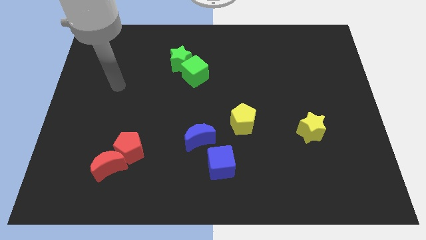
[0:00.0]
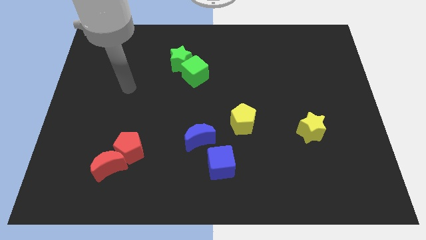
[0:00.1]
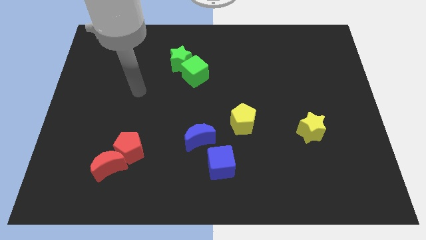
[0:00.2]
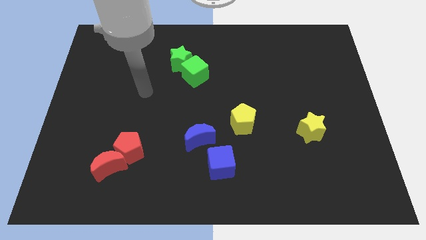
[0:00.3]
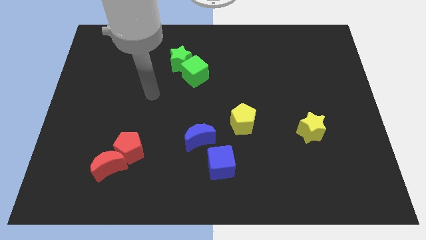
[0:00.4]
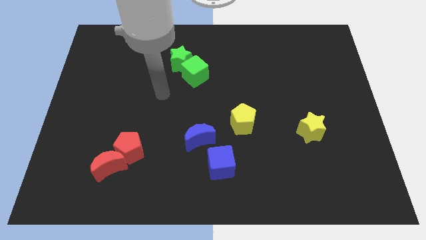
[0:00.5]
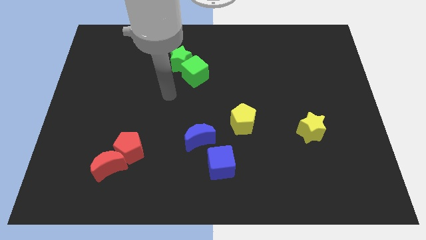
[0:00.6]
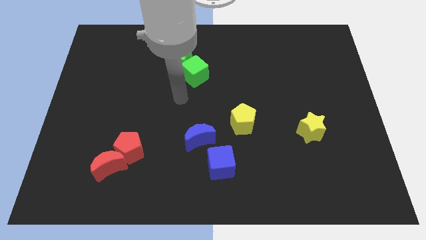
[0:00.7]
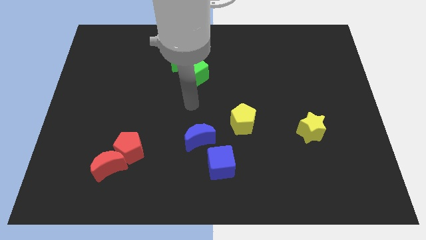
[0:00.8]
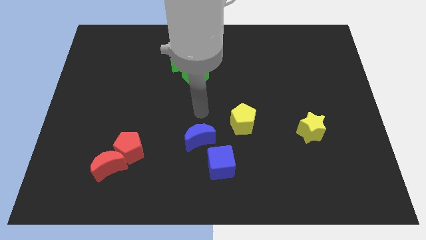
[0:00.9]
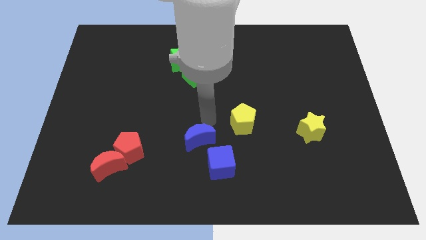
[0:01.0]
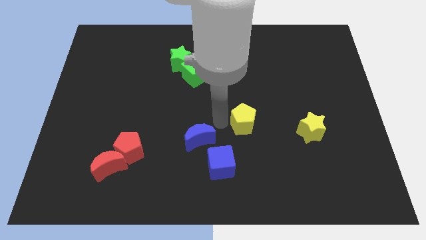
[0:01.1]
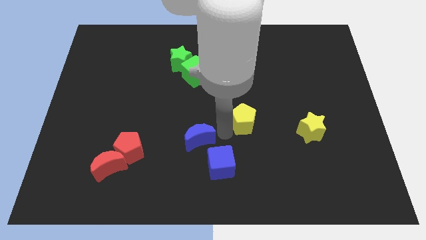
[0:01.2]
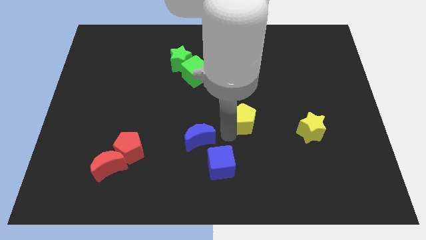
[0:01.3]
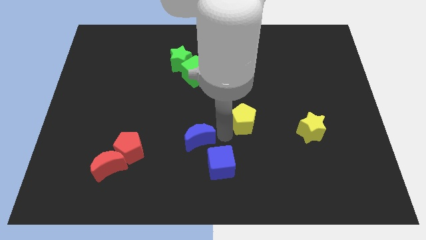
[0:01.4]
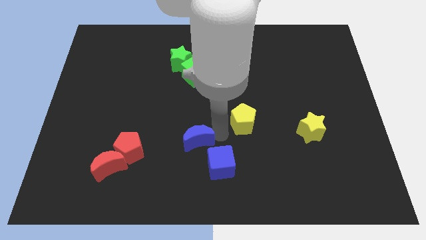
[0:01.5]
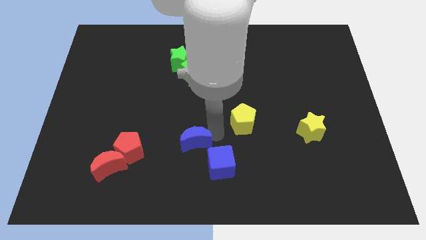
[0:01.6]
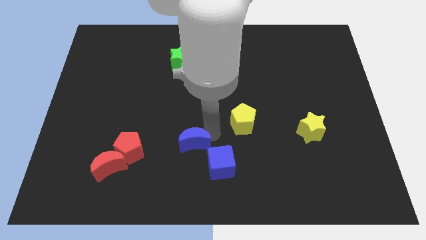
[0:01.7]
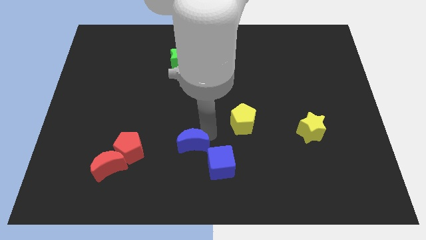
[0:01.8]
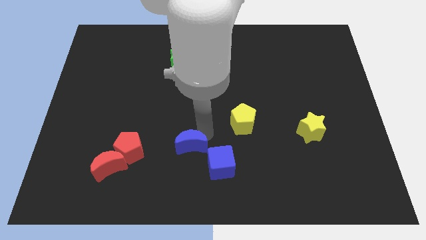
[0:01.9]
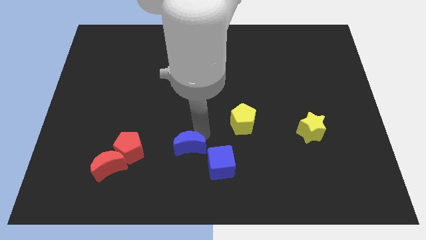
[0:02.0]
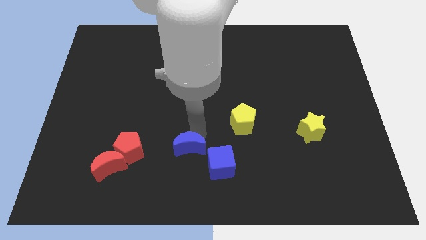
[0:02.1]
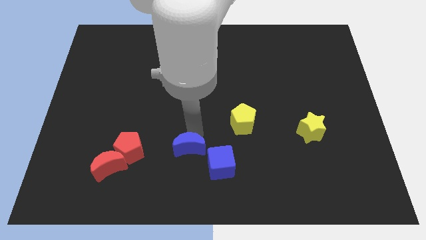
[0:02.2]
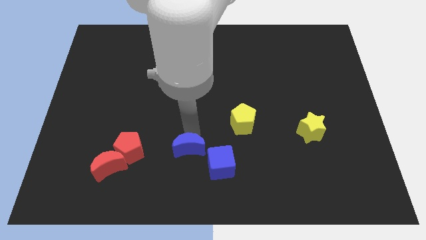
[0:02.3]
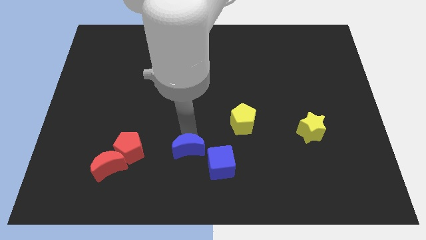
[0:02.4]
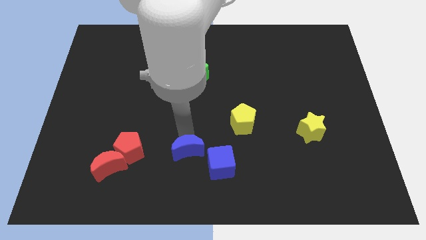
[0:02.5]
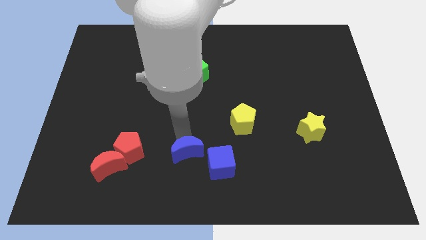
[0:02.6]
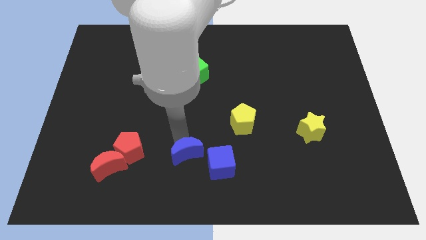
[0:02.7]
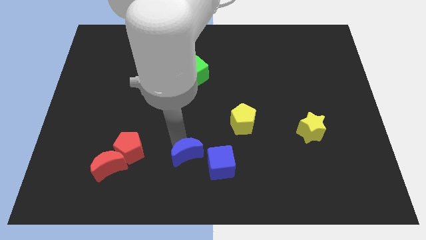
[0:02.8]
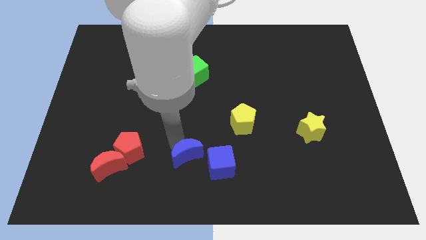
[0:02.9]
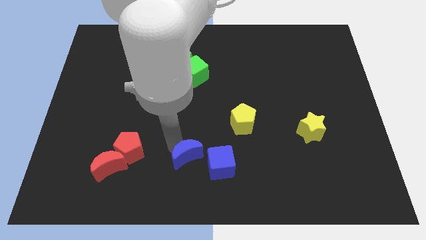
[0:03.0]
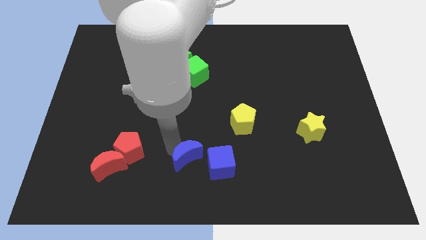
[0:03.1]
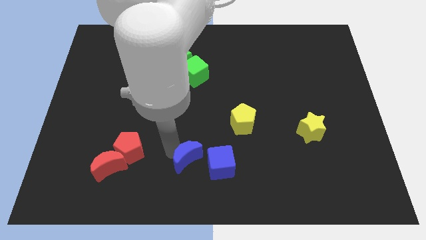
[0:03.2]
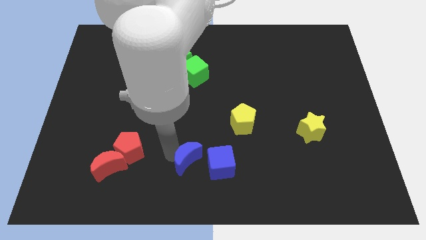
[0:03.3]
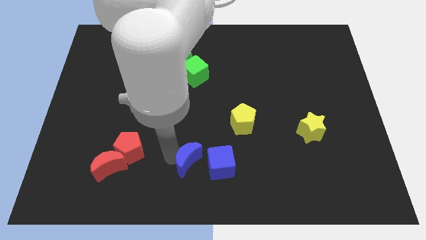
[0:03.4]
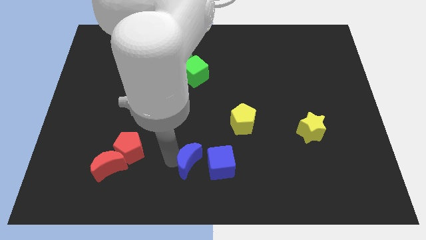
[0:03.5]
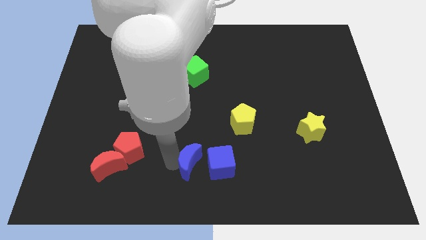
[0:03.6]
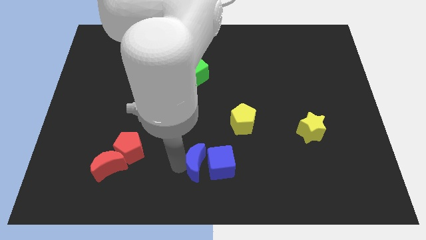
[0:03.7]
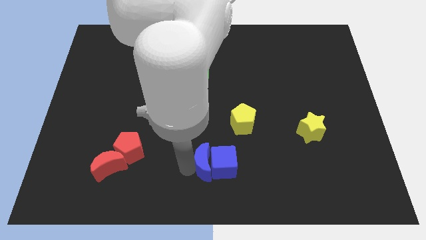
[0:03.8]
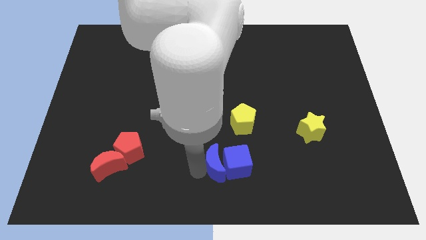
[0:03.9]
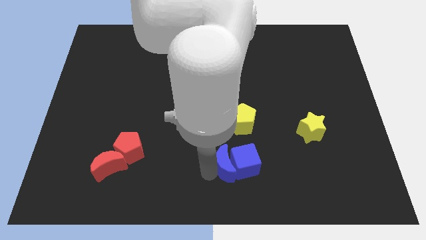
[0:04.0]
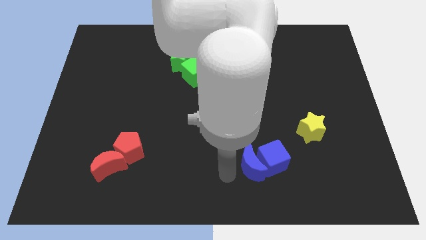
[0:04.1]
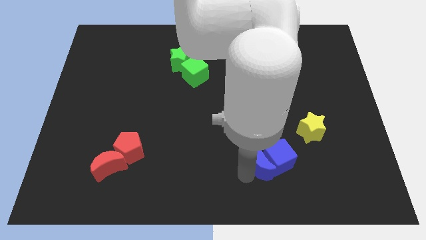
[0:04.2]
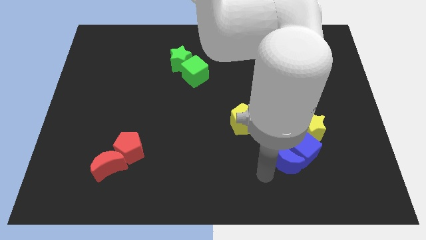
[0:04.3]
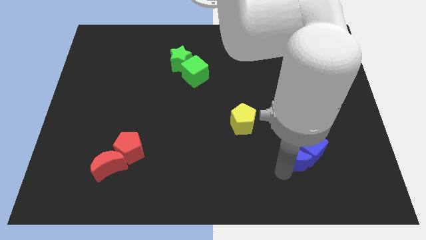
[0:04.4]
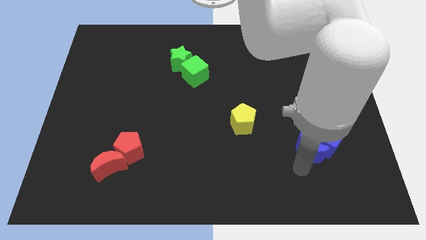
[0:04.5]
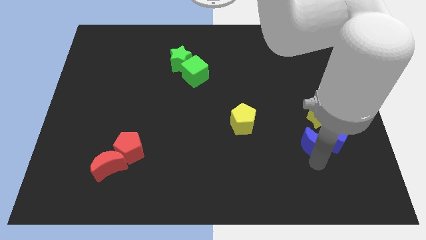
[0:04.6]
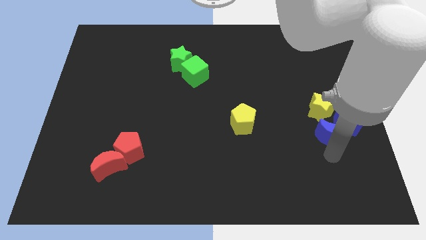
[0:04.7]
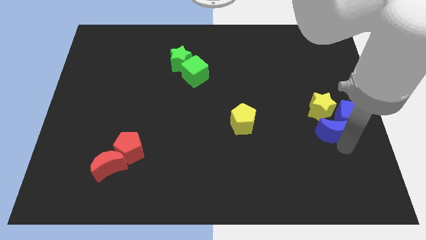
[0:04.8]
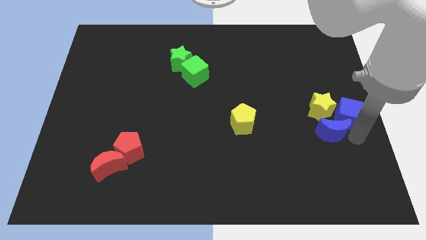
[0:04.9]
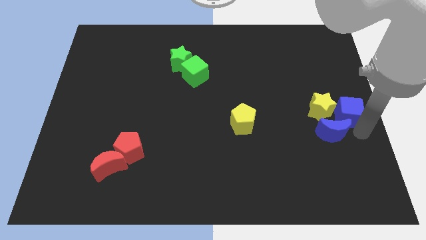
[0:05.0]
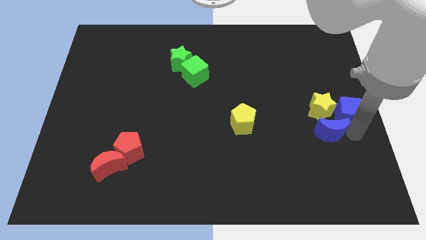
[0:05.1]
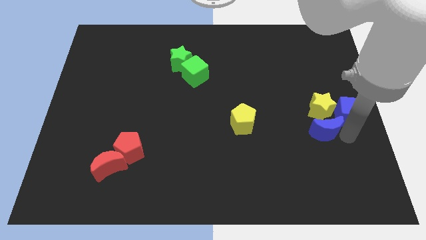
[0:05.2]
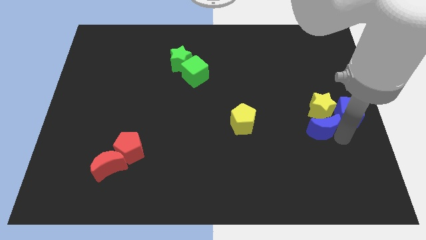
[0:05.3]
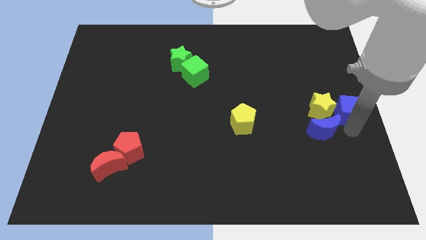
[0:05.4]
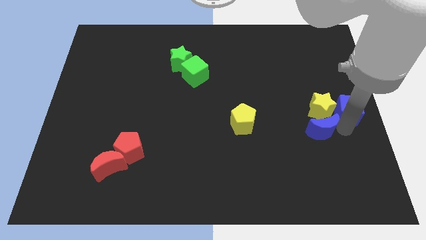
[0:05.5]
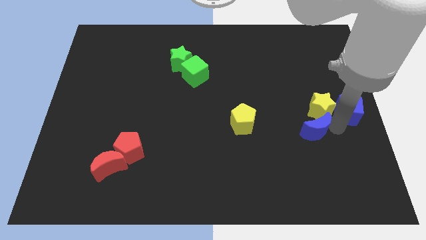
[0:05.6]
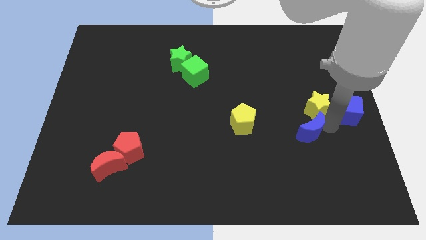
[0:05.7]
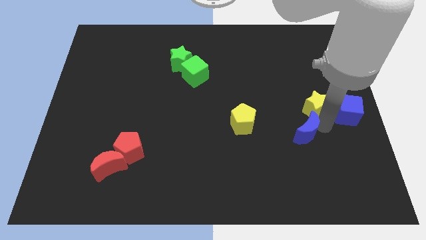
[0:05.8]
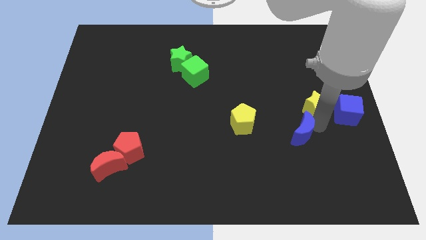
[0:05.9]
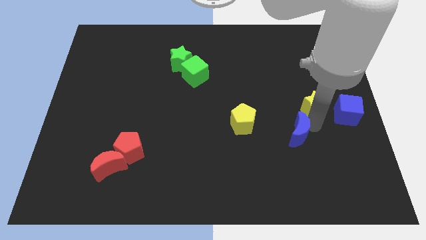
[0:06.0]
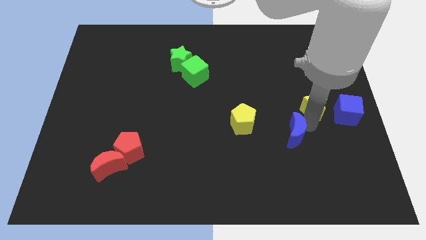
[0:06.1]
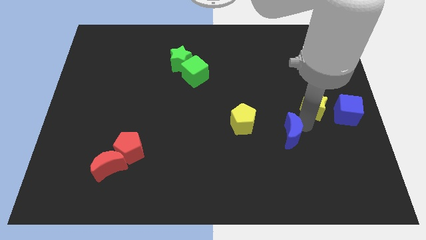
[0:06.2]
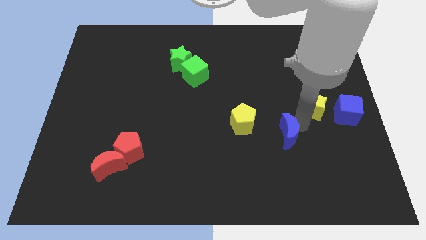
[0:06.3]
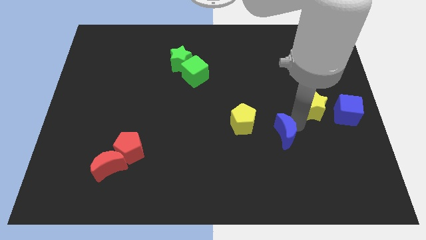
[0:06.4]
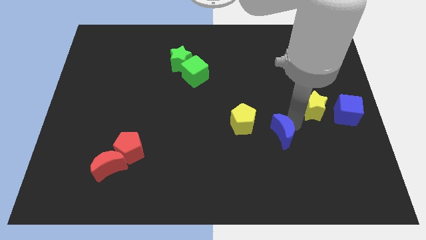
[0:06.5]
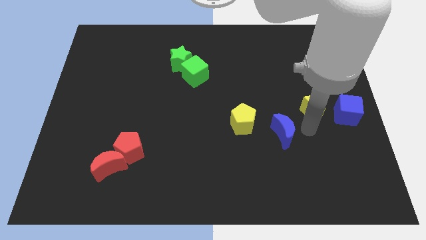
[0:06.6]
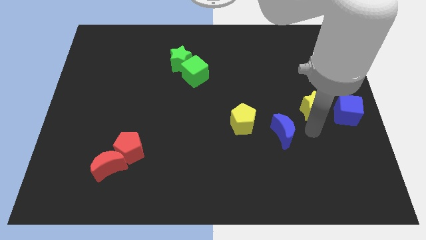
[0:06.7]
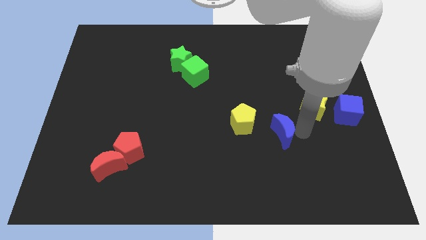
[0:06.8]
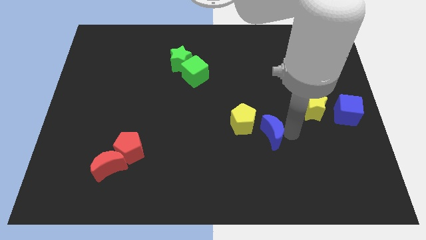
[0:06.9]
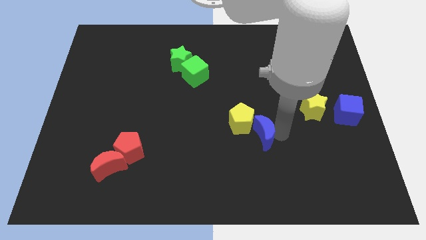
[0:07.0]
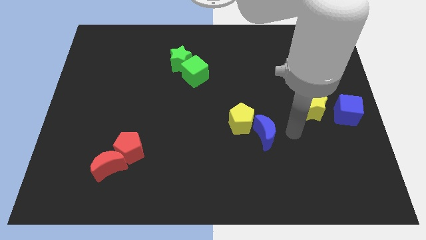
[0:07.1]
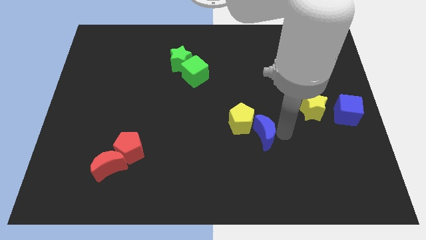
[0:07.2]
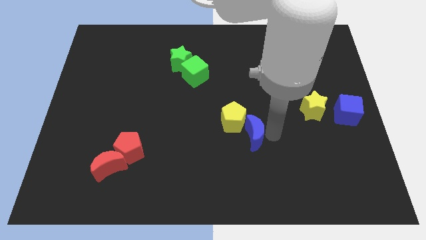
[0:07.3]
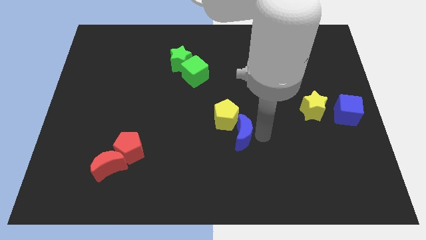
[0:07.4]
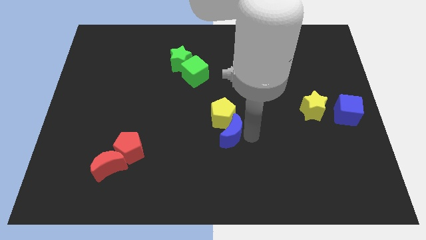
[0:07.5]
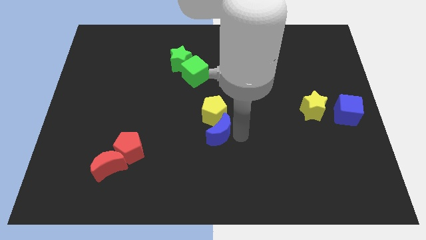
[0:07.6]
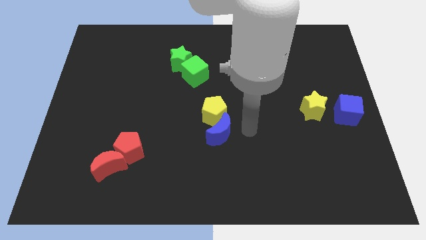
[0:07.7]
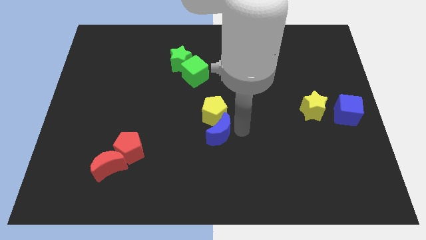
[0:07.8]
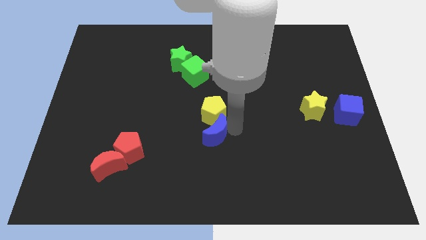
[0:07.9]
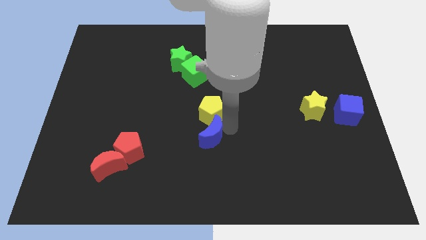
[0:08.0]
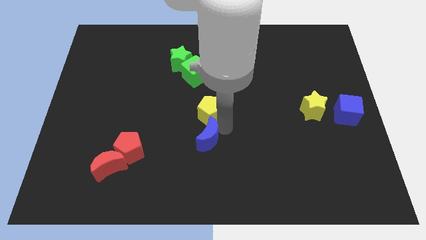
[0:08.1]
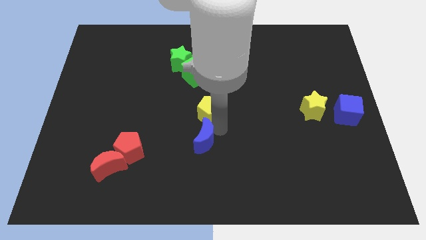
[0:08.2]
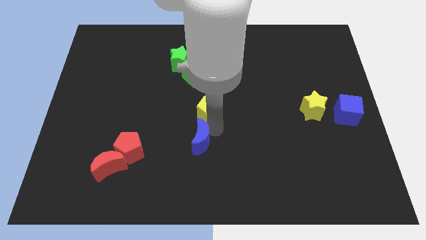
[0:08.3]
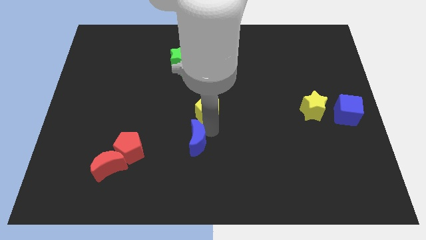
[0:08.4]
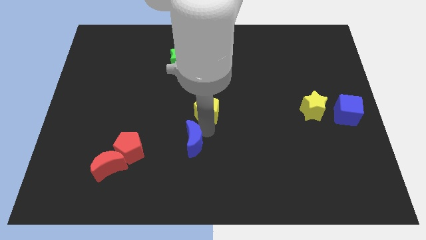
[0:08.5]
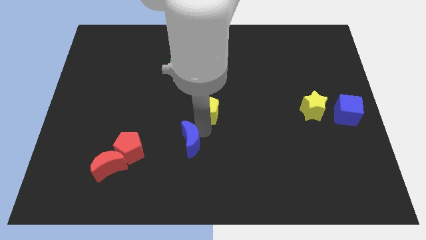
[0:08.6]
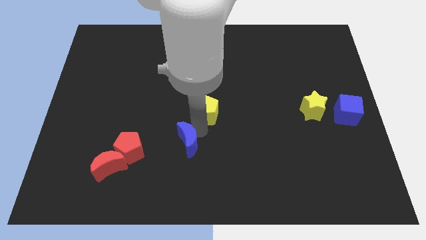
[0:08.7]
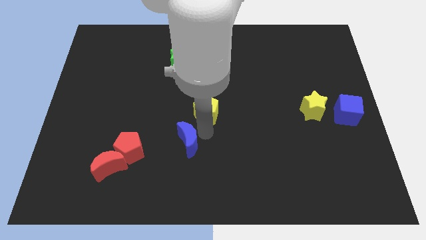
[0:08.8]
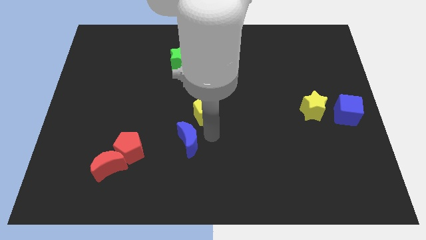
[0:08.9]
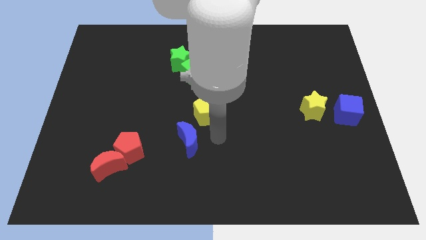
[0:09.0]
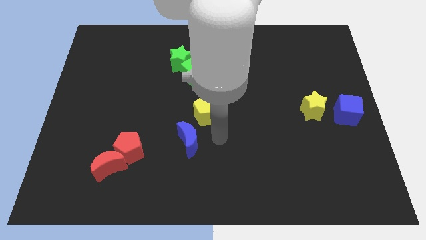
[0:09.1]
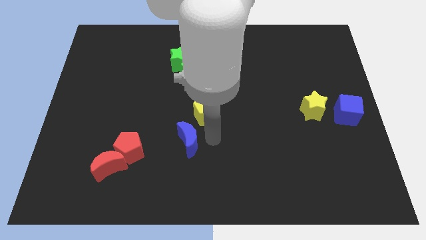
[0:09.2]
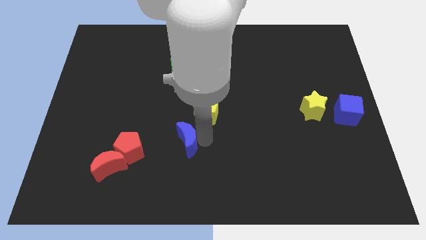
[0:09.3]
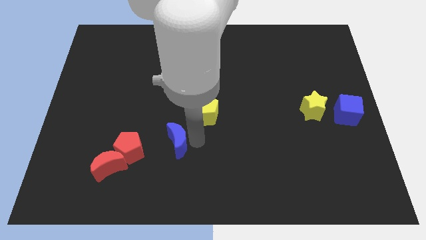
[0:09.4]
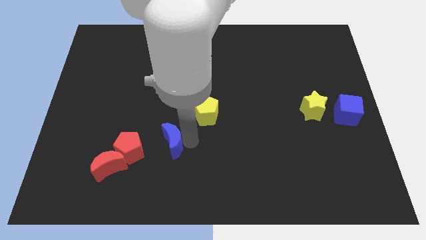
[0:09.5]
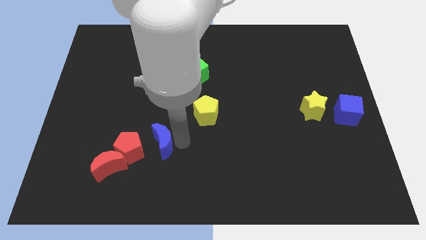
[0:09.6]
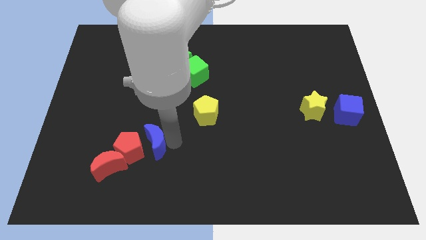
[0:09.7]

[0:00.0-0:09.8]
slide the blue moon next to the red pentagon
